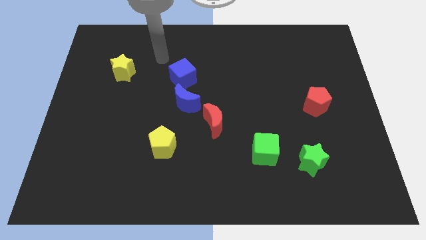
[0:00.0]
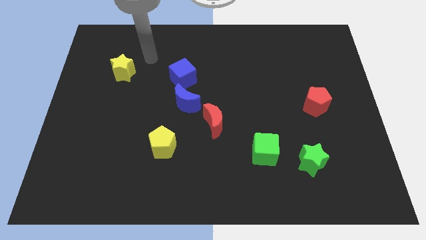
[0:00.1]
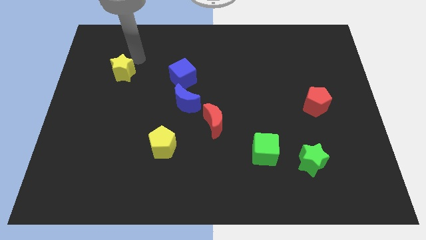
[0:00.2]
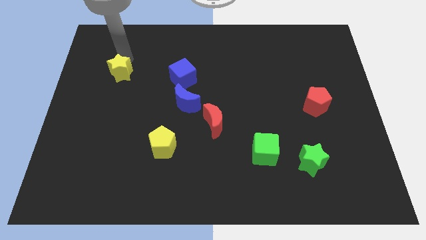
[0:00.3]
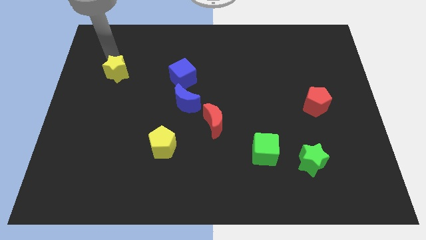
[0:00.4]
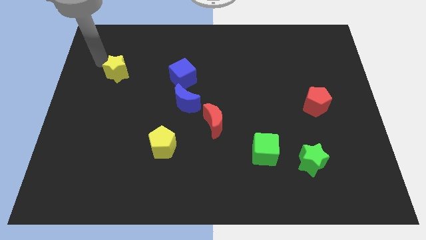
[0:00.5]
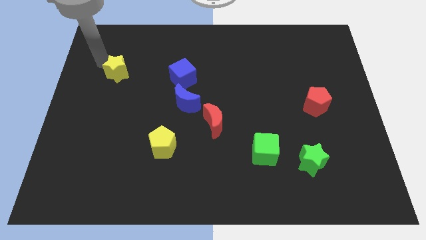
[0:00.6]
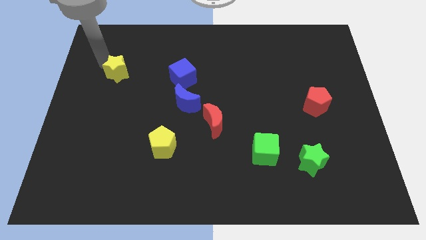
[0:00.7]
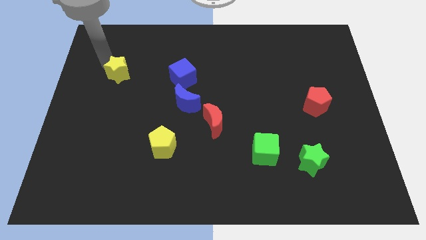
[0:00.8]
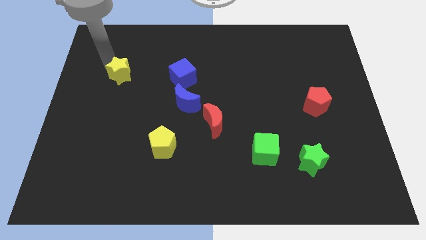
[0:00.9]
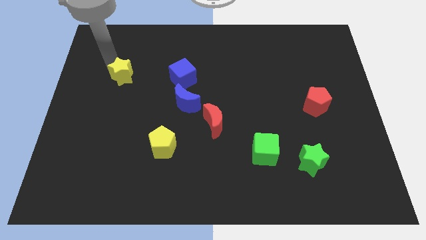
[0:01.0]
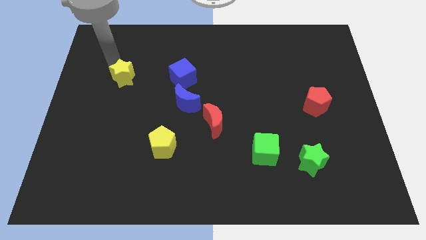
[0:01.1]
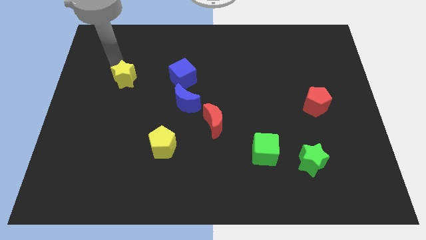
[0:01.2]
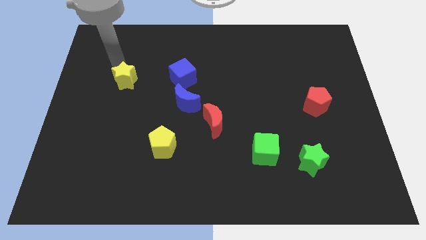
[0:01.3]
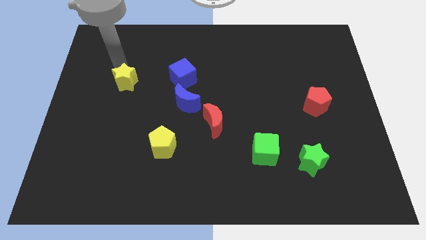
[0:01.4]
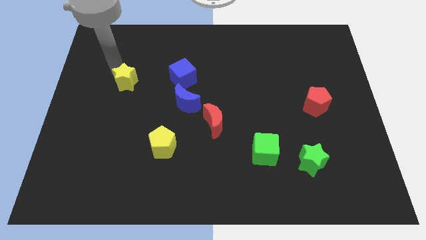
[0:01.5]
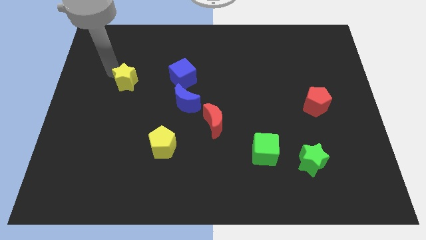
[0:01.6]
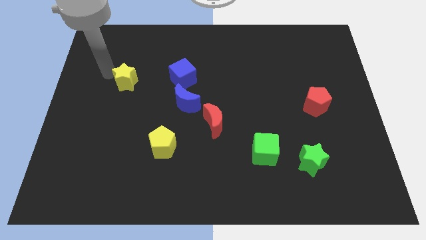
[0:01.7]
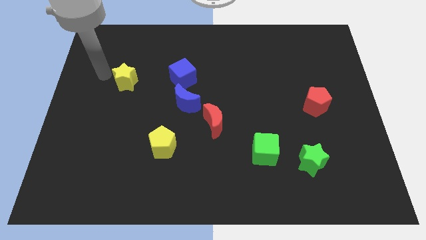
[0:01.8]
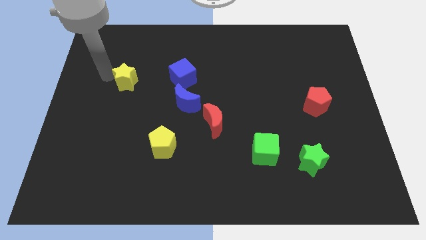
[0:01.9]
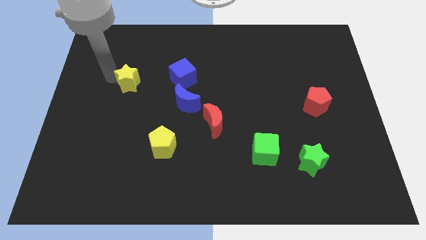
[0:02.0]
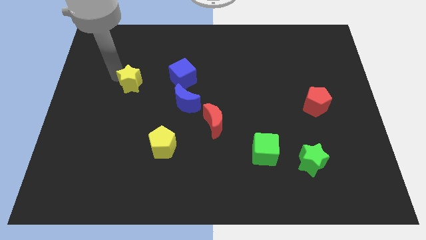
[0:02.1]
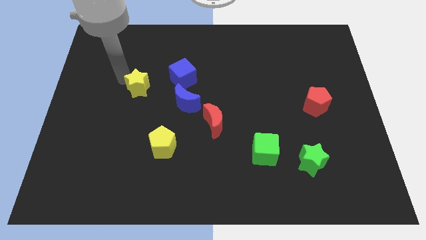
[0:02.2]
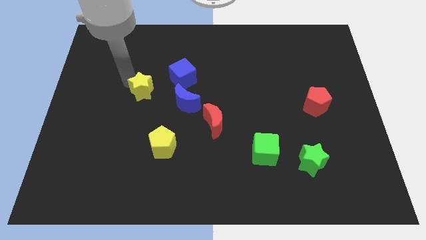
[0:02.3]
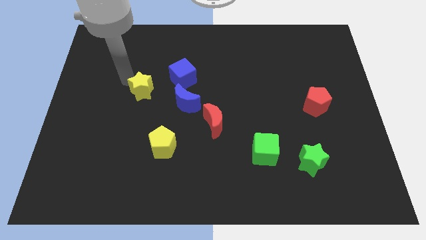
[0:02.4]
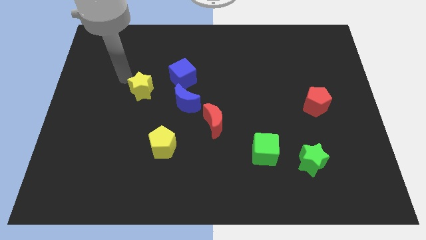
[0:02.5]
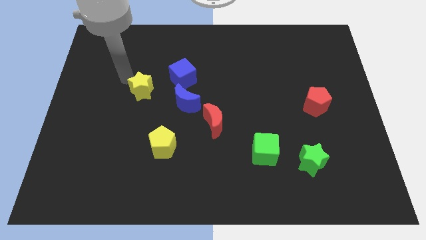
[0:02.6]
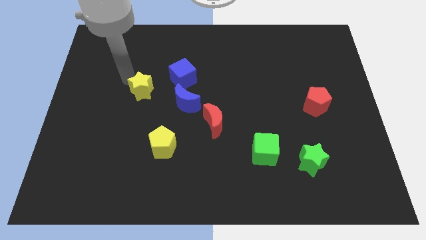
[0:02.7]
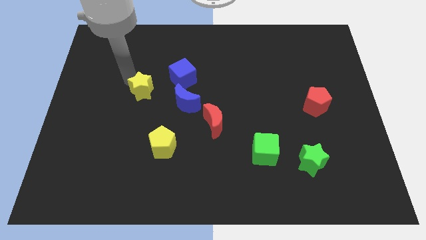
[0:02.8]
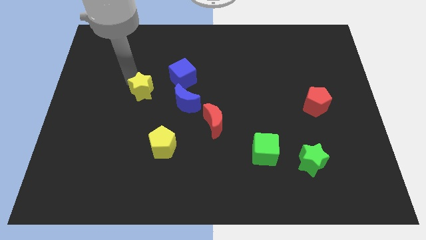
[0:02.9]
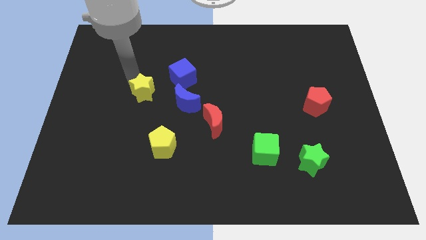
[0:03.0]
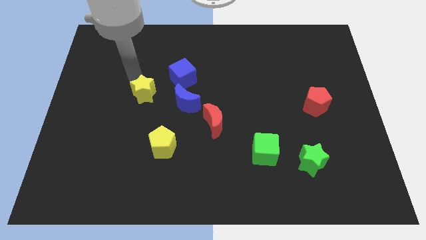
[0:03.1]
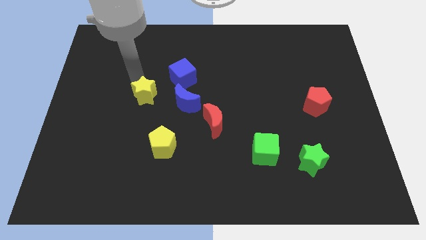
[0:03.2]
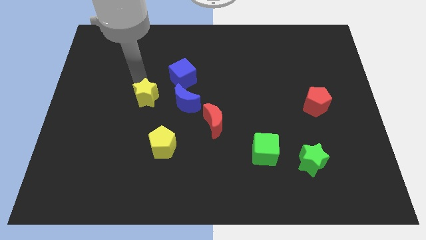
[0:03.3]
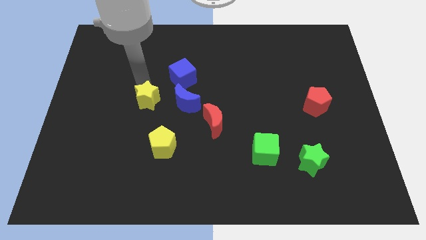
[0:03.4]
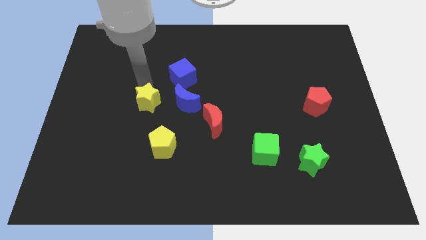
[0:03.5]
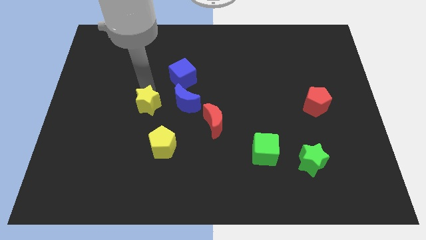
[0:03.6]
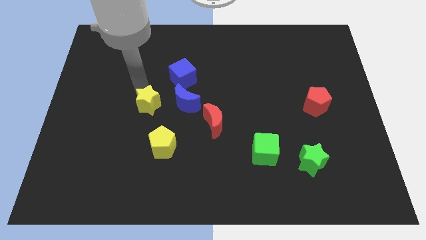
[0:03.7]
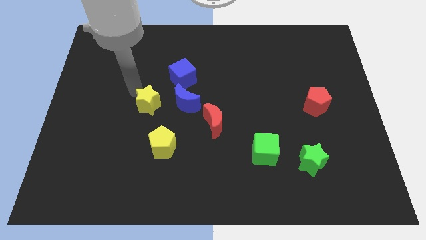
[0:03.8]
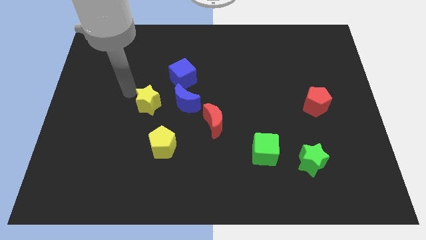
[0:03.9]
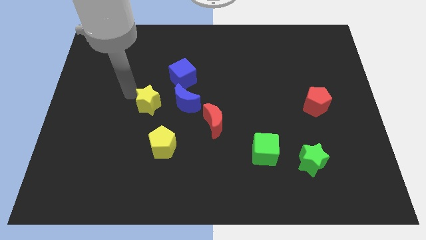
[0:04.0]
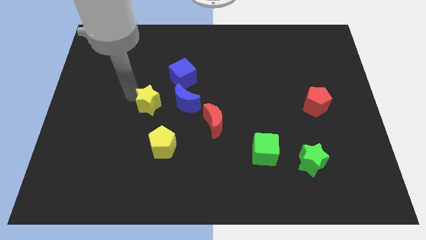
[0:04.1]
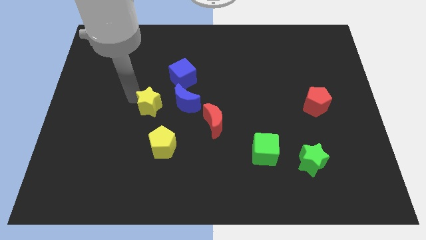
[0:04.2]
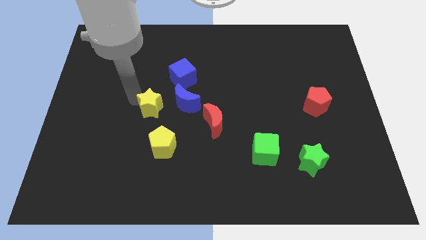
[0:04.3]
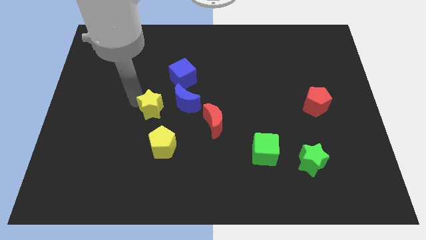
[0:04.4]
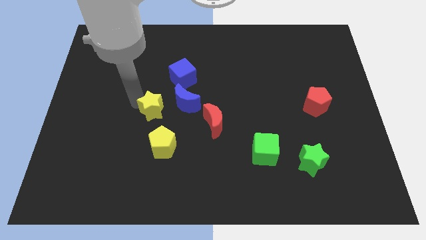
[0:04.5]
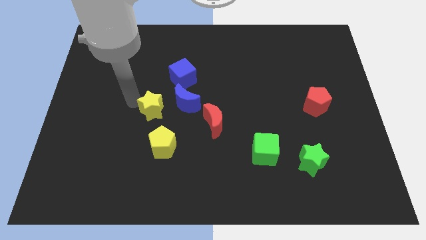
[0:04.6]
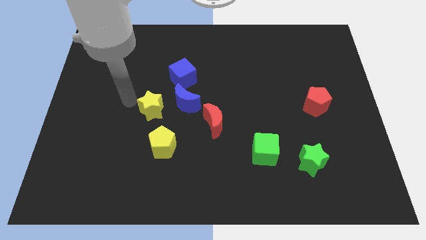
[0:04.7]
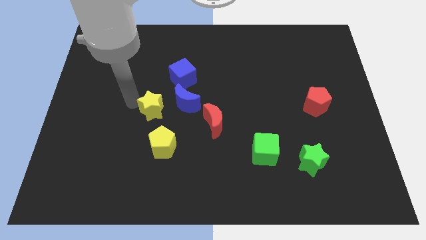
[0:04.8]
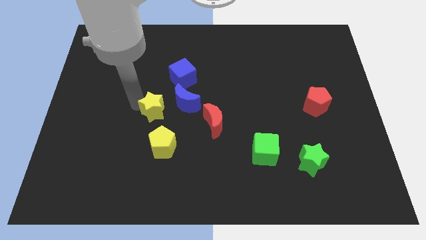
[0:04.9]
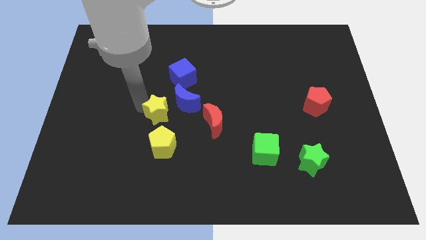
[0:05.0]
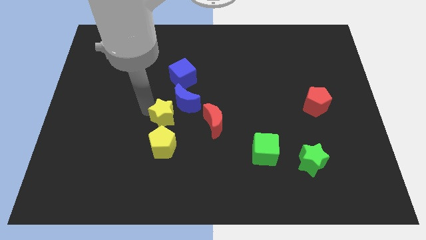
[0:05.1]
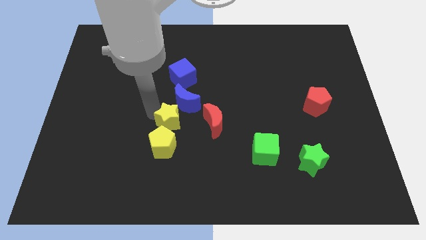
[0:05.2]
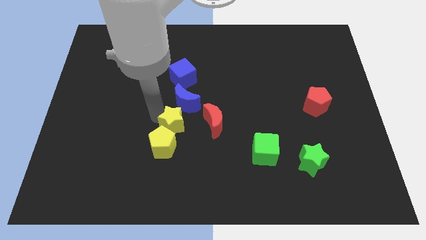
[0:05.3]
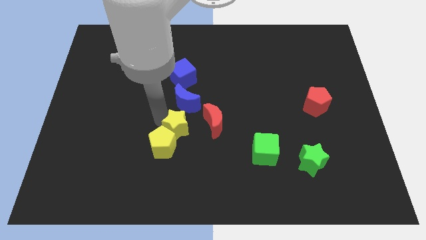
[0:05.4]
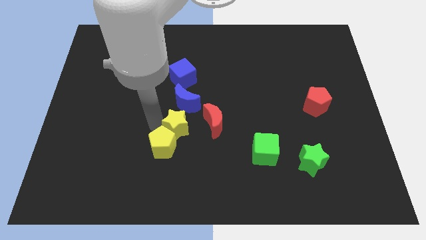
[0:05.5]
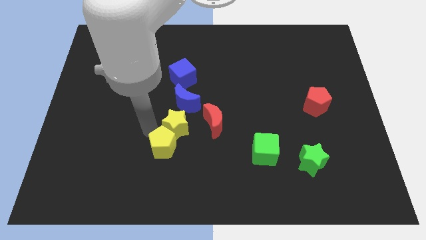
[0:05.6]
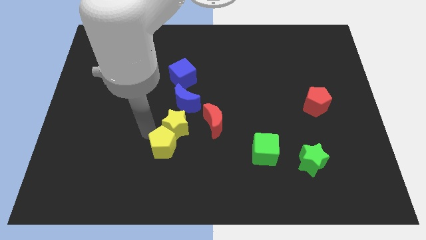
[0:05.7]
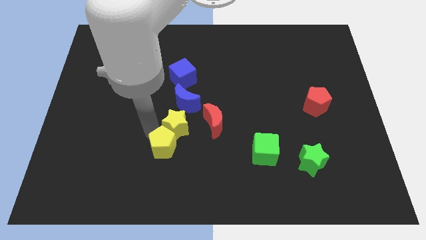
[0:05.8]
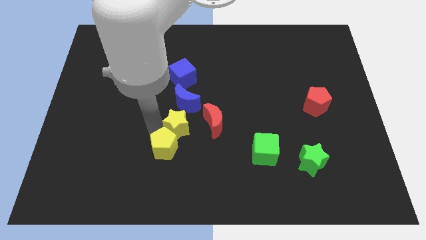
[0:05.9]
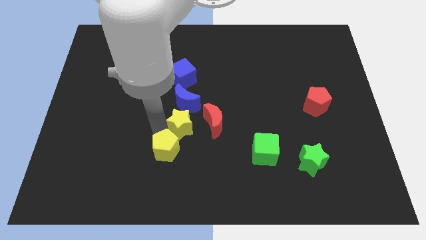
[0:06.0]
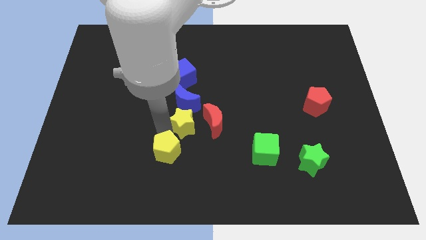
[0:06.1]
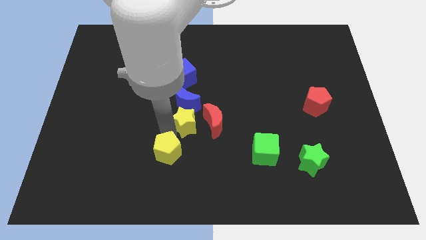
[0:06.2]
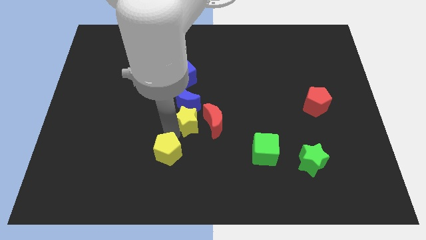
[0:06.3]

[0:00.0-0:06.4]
move the yellow star to the red moon

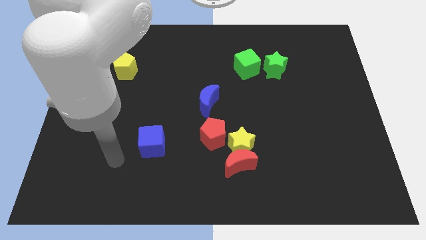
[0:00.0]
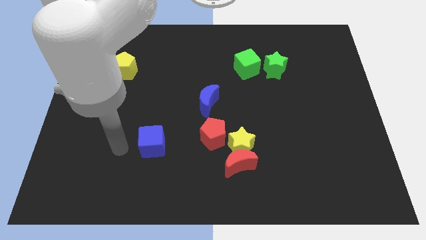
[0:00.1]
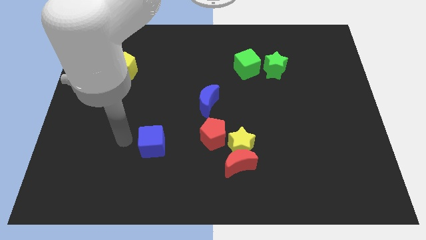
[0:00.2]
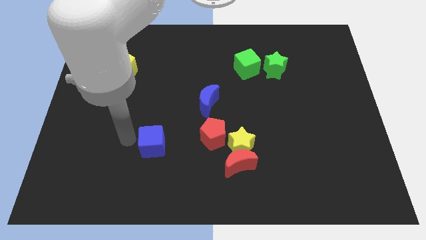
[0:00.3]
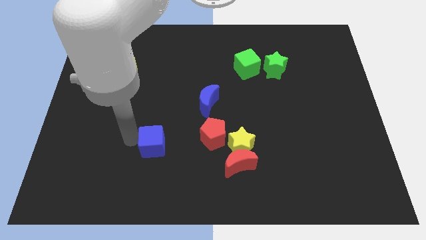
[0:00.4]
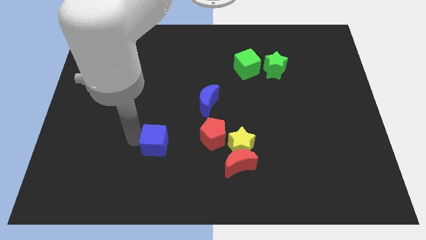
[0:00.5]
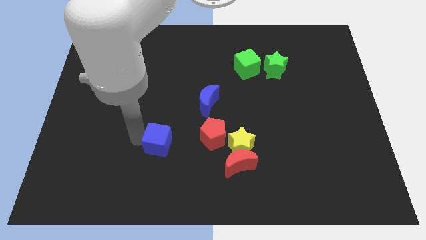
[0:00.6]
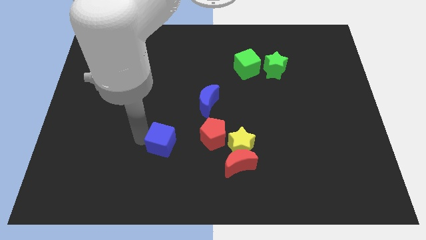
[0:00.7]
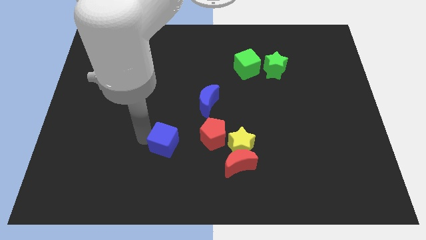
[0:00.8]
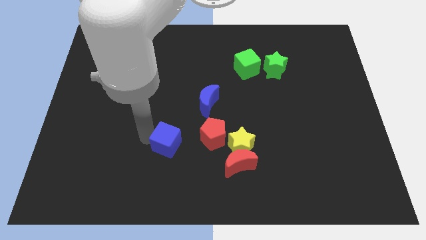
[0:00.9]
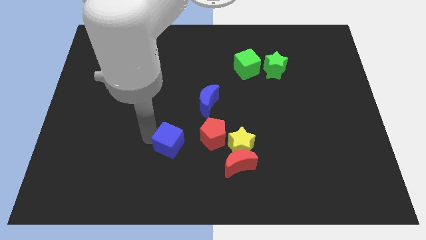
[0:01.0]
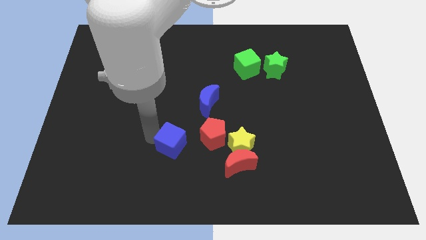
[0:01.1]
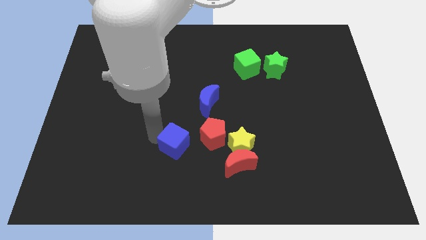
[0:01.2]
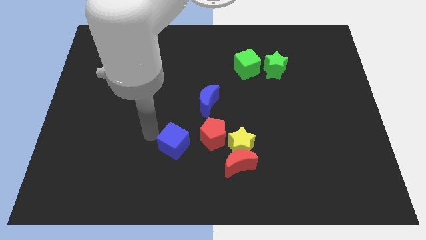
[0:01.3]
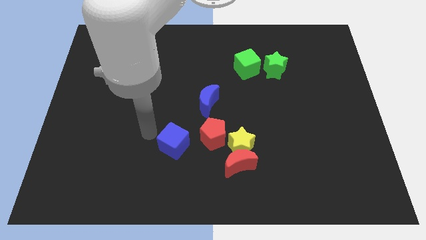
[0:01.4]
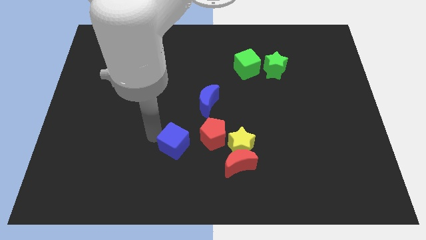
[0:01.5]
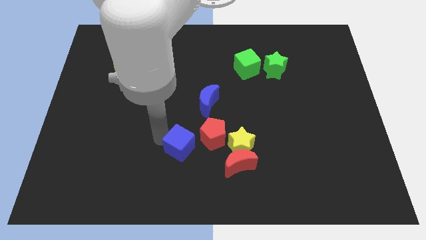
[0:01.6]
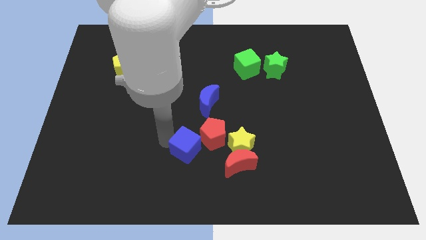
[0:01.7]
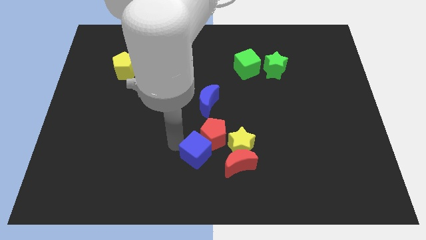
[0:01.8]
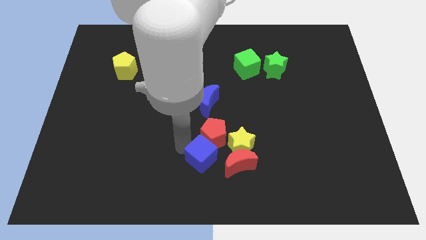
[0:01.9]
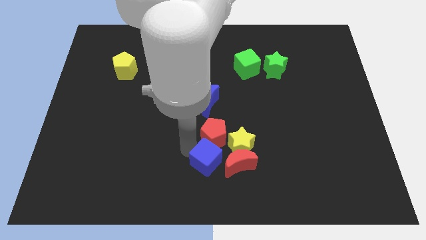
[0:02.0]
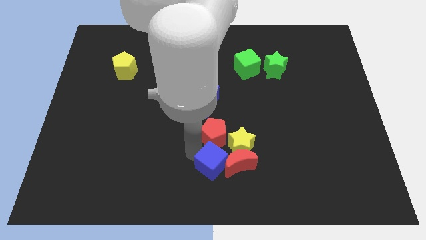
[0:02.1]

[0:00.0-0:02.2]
slide the blue cube close to the red moon
